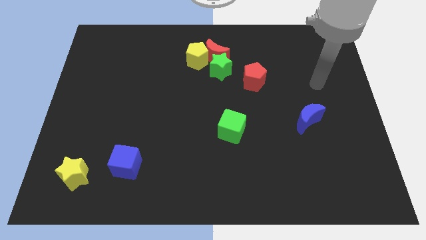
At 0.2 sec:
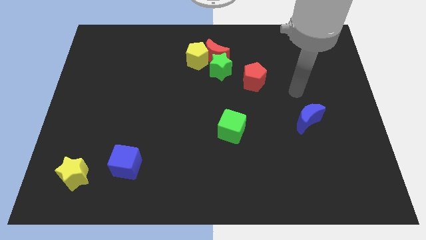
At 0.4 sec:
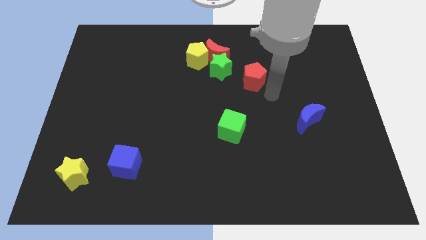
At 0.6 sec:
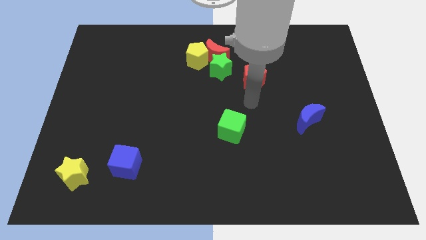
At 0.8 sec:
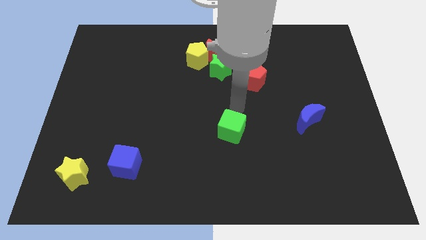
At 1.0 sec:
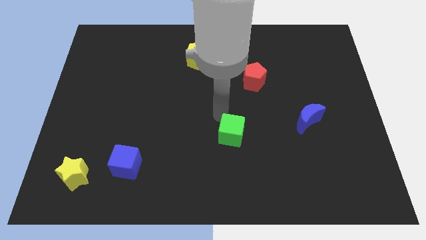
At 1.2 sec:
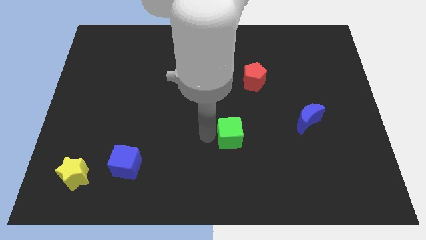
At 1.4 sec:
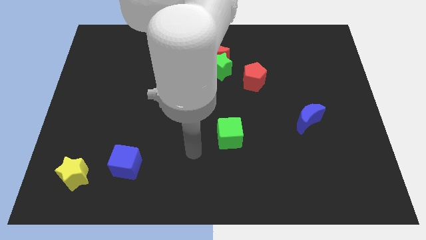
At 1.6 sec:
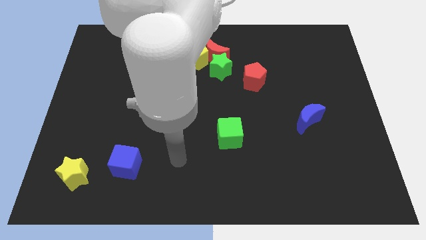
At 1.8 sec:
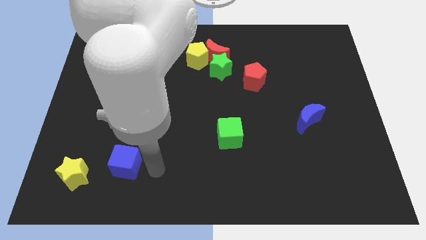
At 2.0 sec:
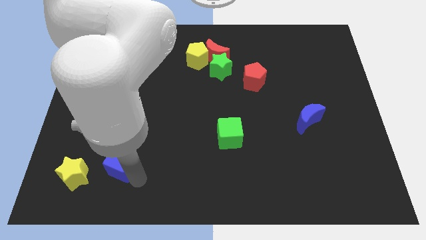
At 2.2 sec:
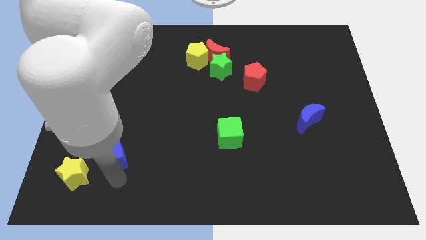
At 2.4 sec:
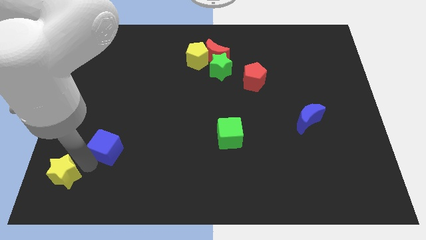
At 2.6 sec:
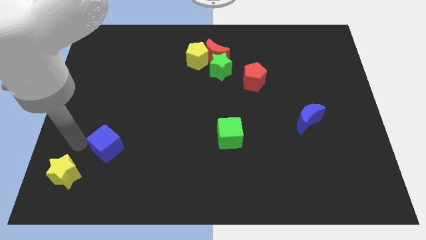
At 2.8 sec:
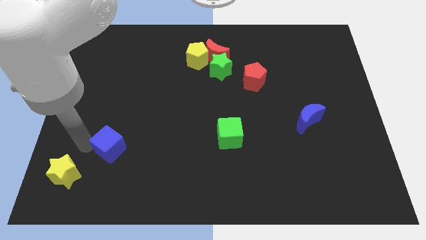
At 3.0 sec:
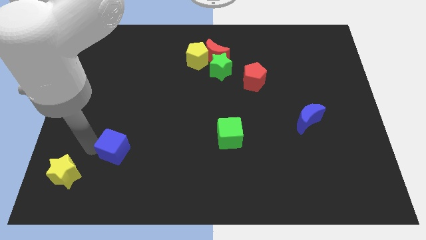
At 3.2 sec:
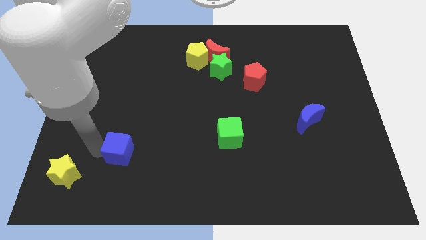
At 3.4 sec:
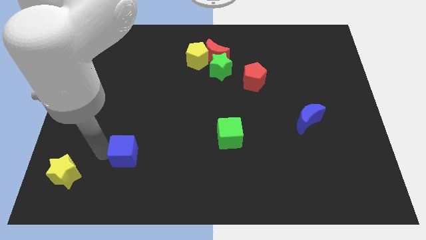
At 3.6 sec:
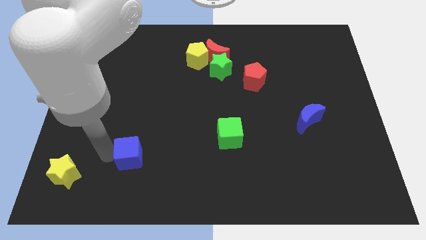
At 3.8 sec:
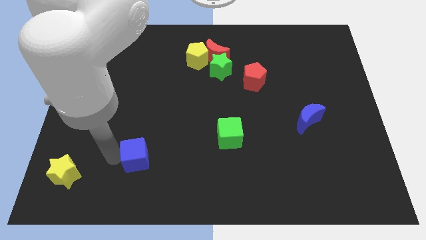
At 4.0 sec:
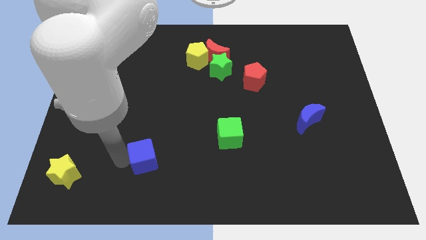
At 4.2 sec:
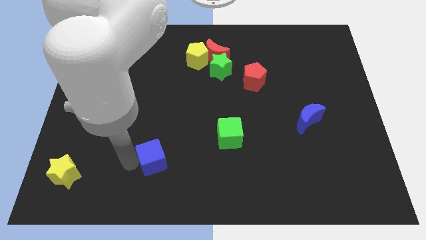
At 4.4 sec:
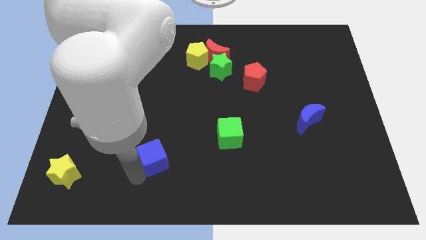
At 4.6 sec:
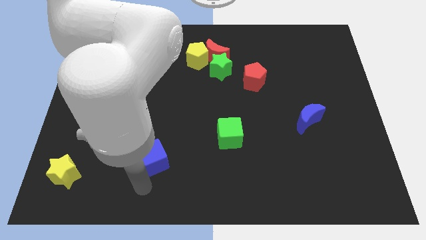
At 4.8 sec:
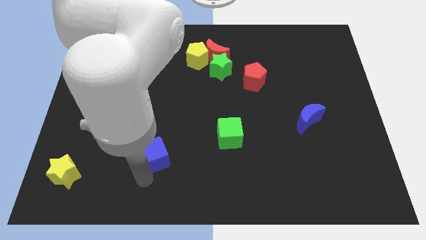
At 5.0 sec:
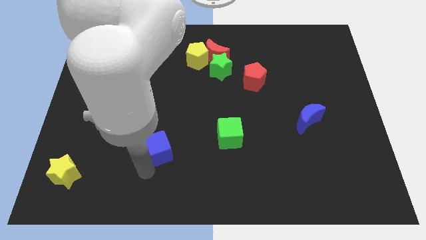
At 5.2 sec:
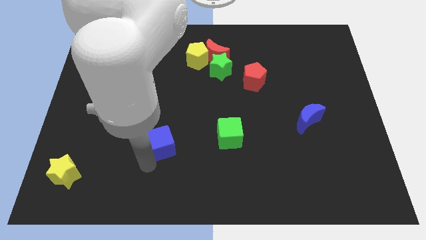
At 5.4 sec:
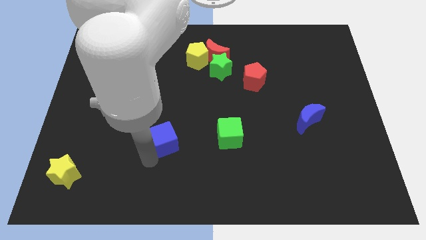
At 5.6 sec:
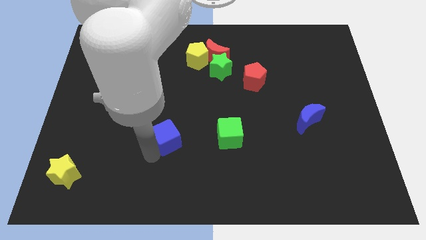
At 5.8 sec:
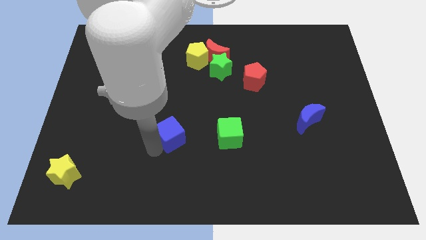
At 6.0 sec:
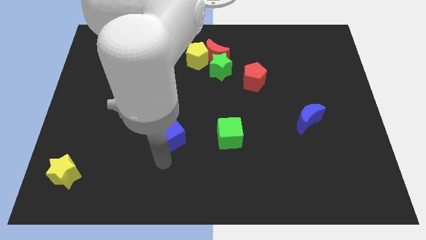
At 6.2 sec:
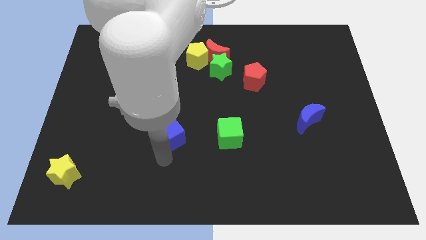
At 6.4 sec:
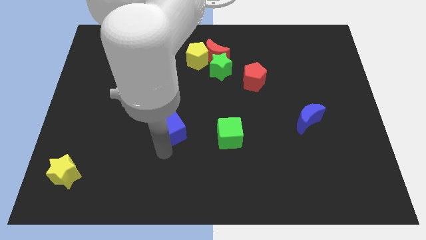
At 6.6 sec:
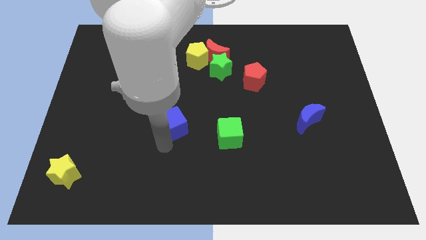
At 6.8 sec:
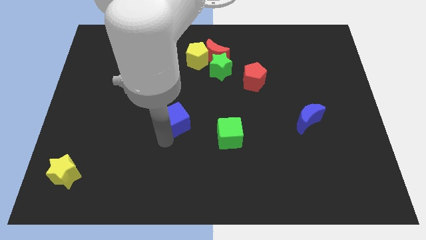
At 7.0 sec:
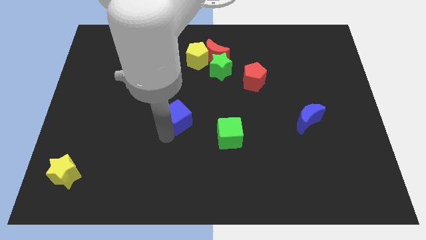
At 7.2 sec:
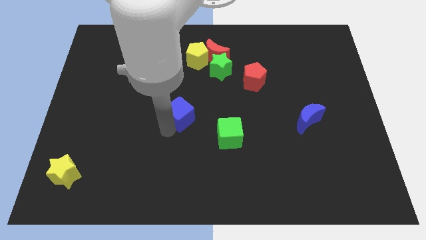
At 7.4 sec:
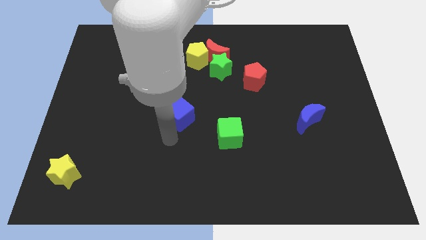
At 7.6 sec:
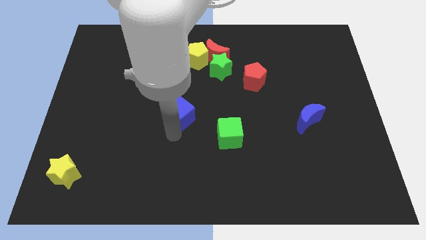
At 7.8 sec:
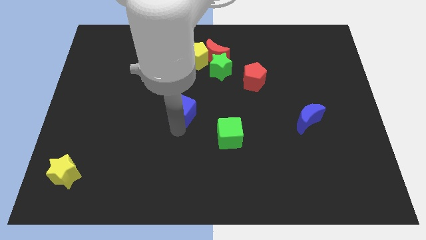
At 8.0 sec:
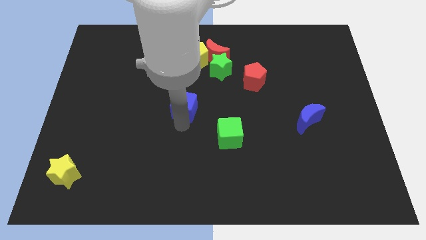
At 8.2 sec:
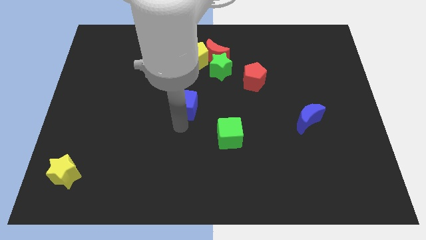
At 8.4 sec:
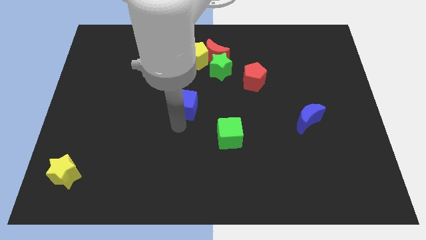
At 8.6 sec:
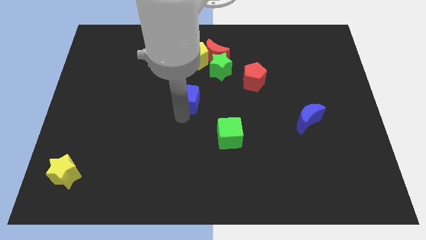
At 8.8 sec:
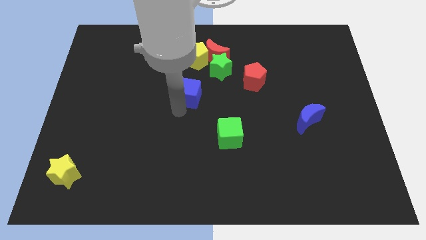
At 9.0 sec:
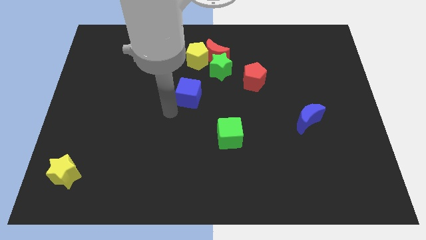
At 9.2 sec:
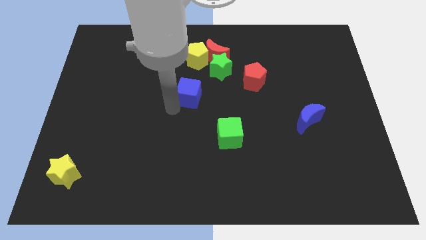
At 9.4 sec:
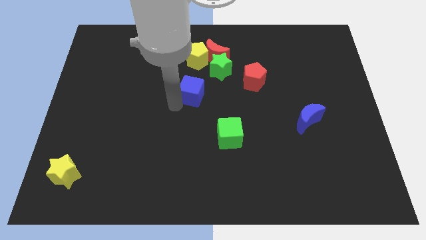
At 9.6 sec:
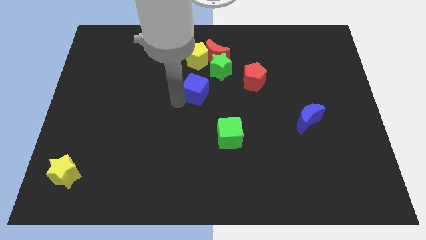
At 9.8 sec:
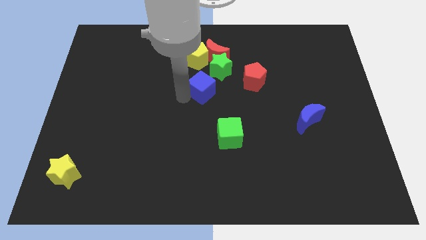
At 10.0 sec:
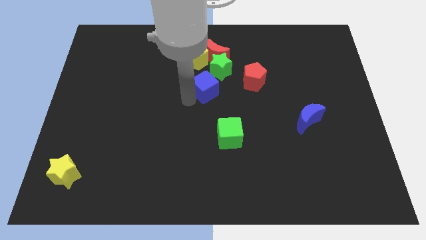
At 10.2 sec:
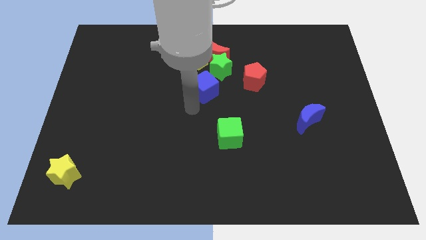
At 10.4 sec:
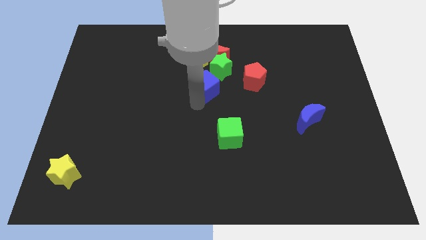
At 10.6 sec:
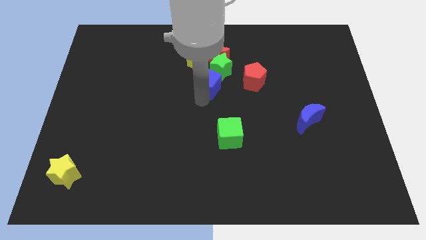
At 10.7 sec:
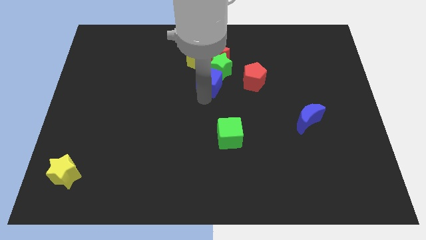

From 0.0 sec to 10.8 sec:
move the blue cube towards the green star

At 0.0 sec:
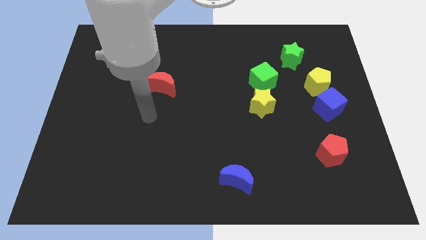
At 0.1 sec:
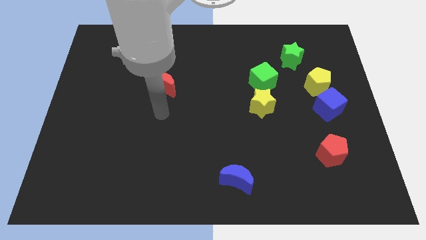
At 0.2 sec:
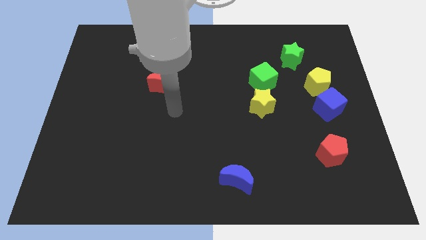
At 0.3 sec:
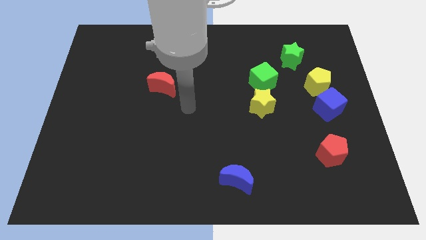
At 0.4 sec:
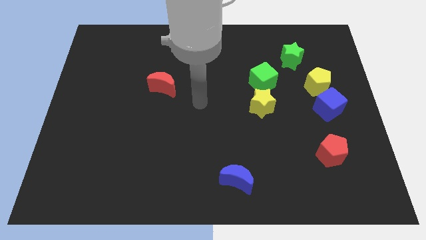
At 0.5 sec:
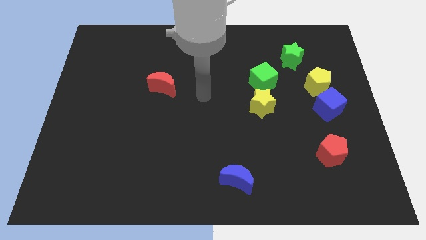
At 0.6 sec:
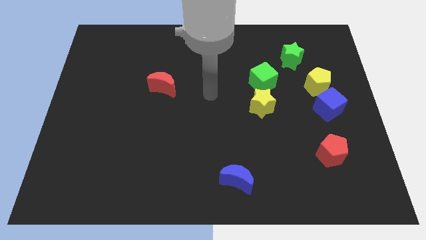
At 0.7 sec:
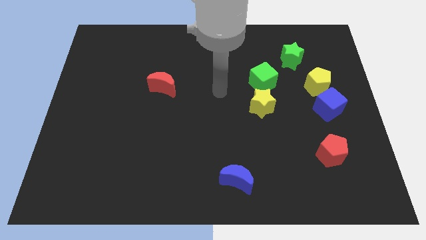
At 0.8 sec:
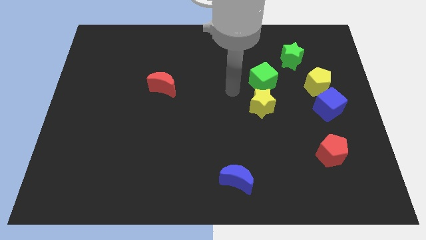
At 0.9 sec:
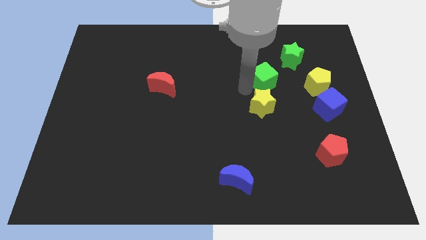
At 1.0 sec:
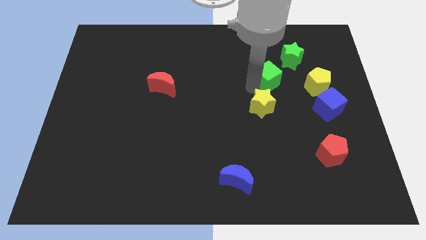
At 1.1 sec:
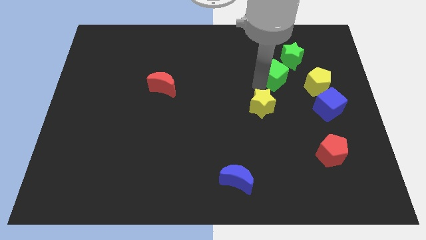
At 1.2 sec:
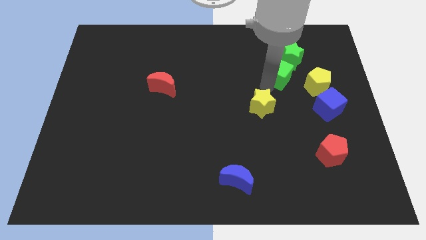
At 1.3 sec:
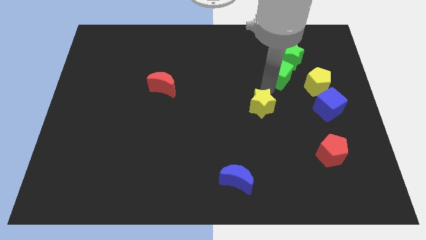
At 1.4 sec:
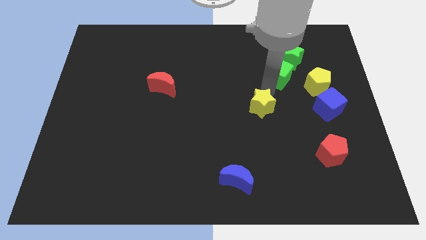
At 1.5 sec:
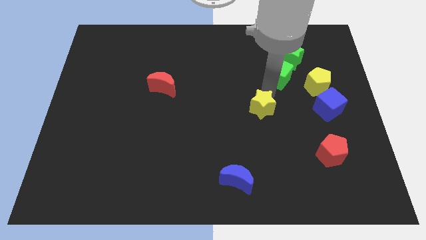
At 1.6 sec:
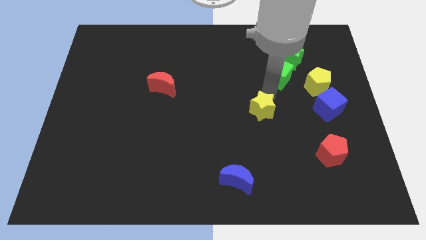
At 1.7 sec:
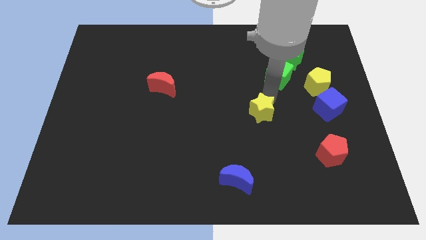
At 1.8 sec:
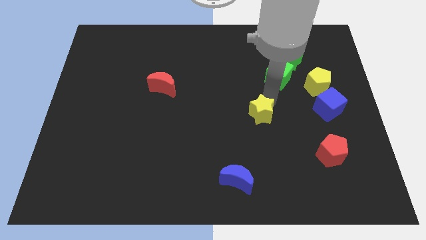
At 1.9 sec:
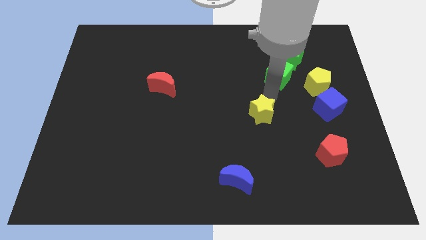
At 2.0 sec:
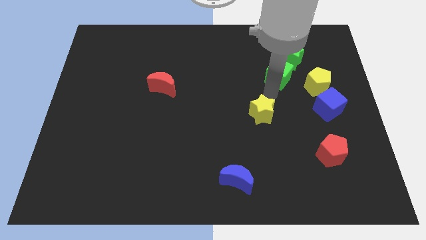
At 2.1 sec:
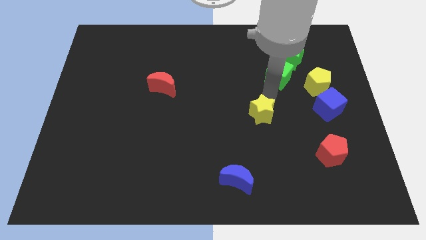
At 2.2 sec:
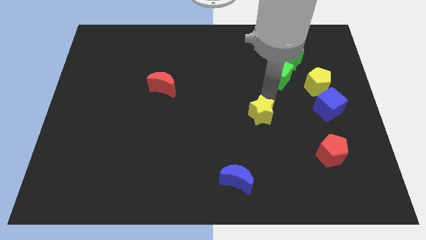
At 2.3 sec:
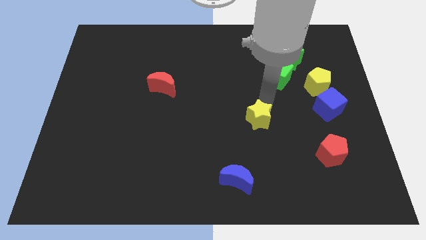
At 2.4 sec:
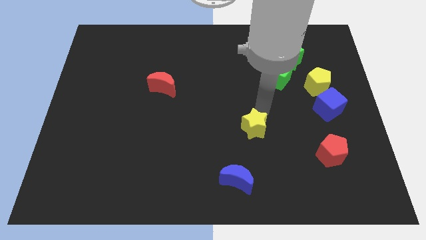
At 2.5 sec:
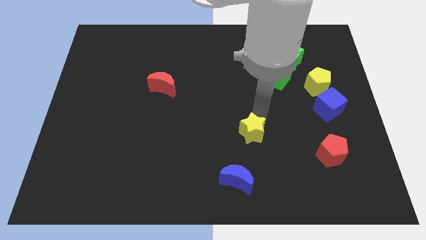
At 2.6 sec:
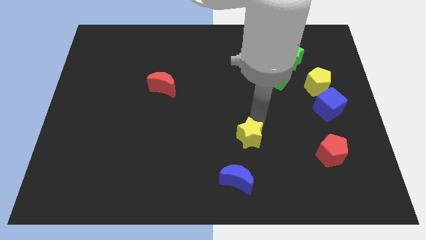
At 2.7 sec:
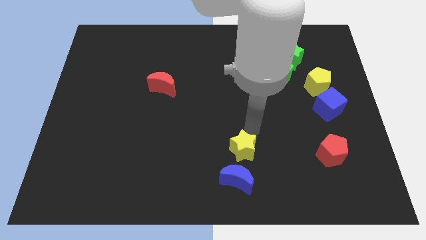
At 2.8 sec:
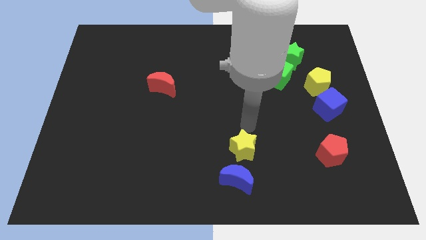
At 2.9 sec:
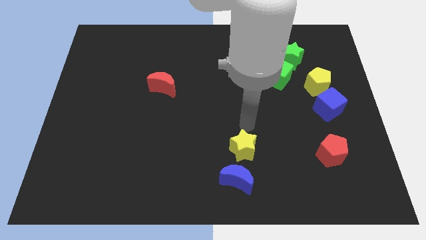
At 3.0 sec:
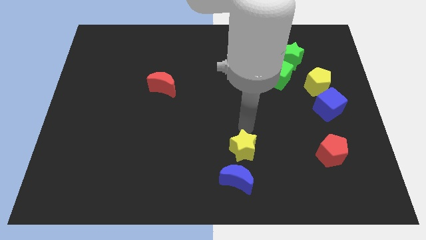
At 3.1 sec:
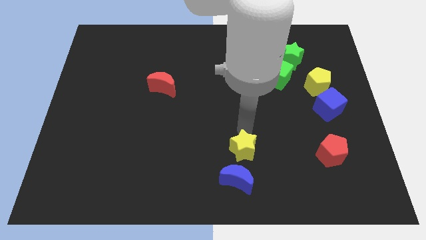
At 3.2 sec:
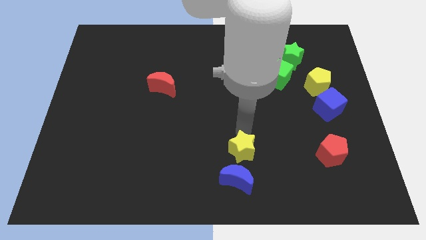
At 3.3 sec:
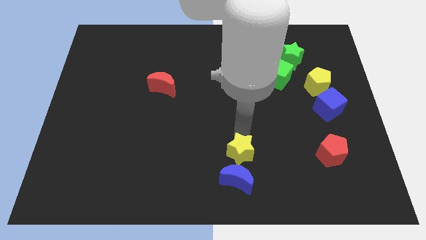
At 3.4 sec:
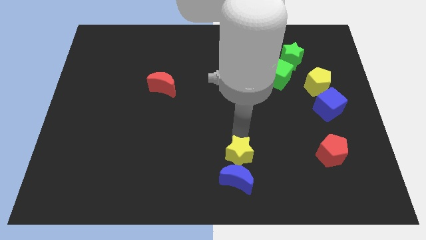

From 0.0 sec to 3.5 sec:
move the yellow star to the blue moon
